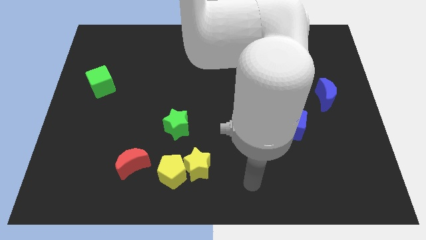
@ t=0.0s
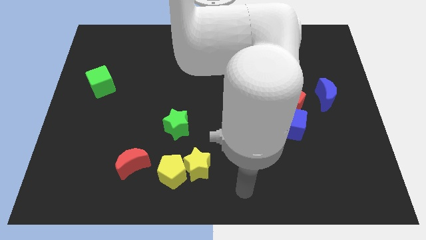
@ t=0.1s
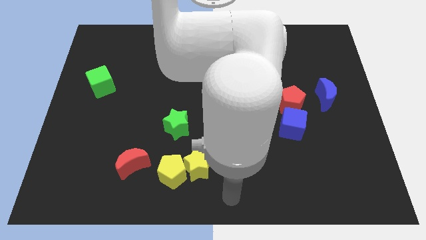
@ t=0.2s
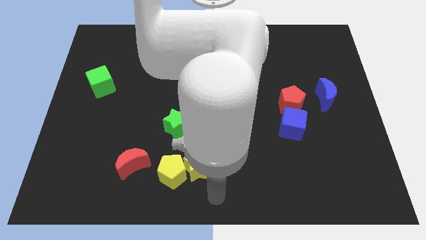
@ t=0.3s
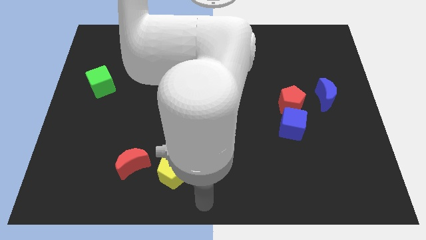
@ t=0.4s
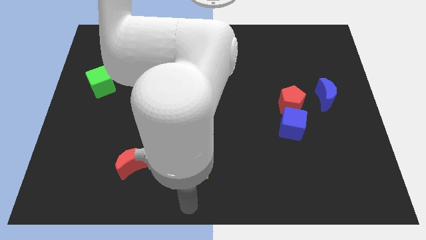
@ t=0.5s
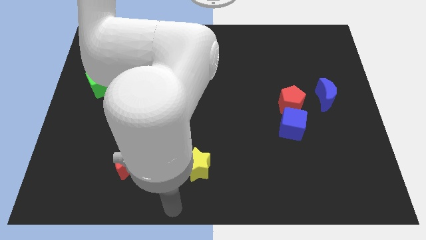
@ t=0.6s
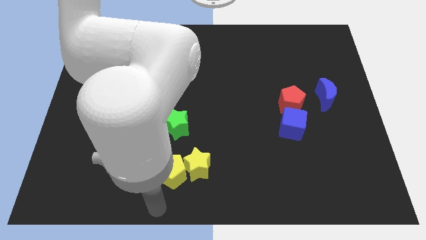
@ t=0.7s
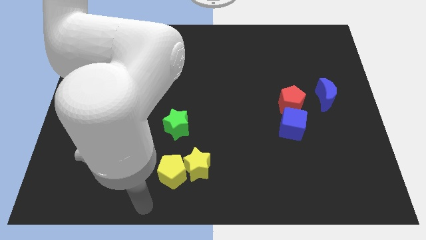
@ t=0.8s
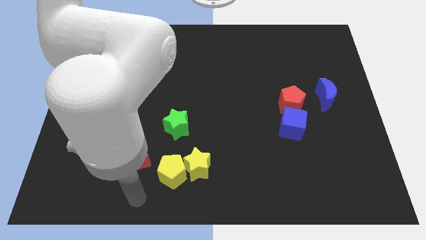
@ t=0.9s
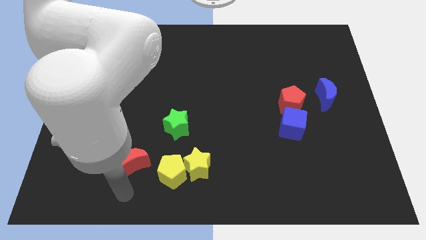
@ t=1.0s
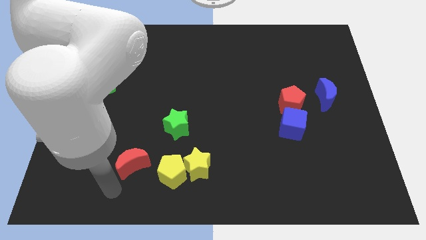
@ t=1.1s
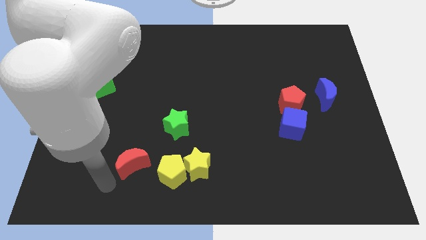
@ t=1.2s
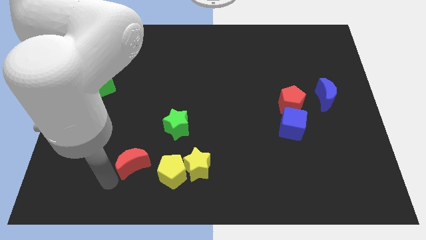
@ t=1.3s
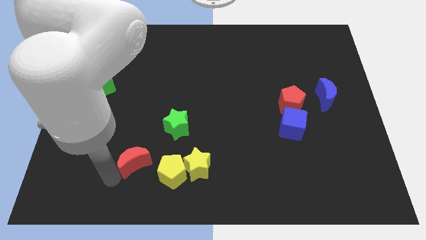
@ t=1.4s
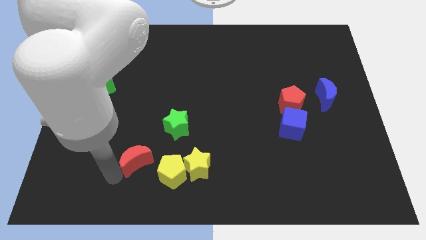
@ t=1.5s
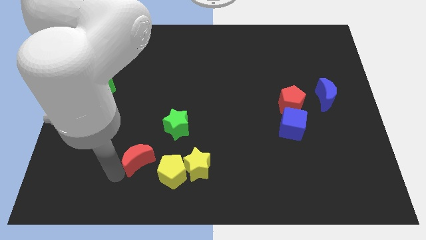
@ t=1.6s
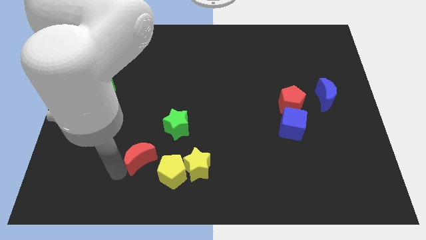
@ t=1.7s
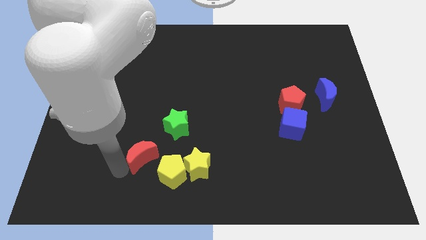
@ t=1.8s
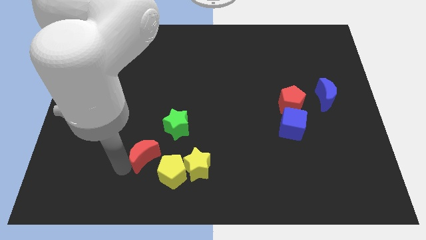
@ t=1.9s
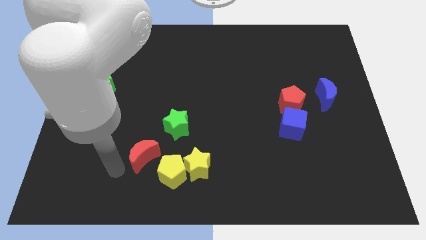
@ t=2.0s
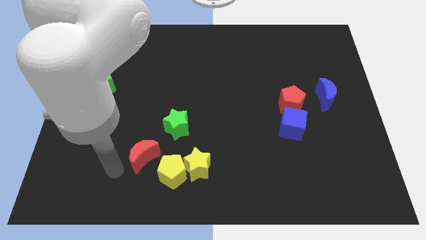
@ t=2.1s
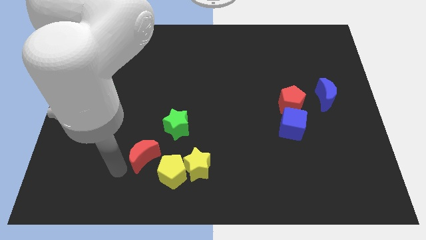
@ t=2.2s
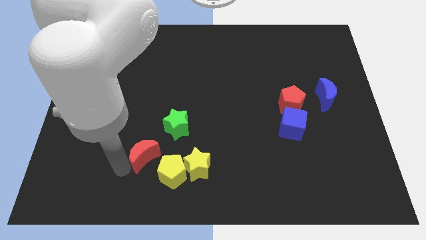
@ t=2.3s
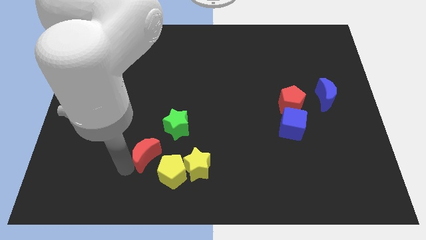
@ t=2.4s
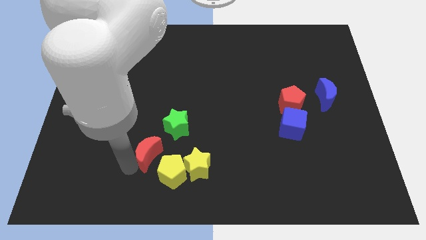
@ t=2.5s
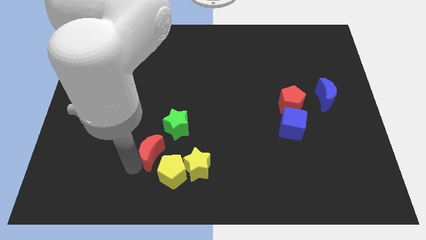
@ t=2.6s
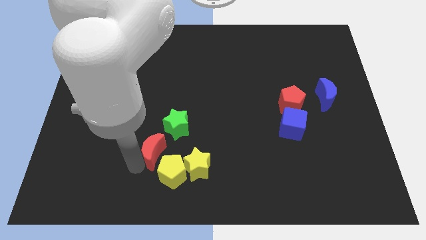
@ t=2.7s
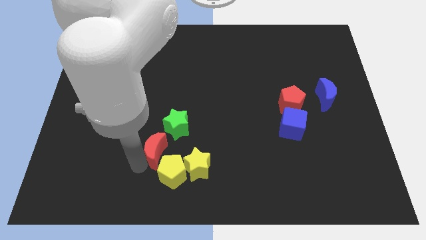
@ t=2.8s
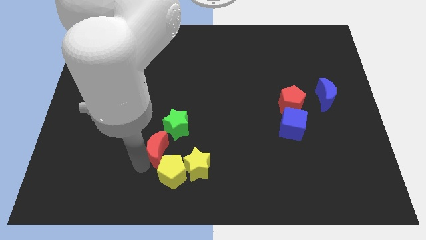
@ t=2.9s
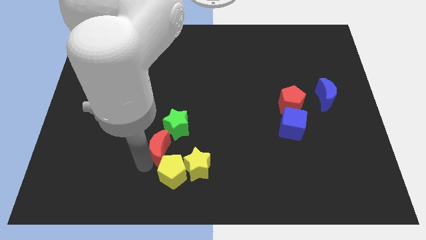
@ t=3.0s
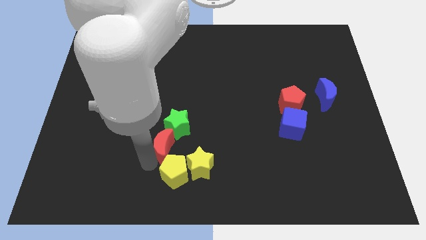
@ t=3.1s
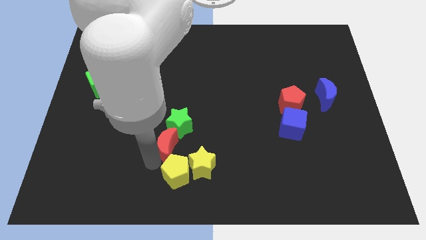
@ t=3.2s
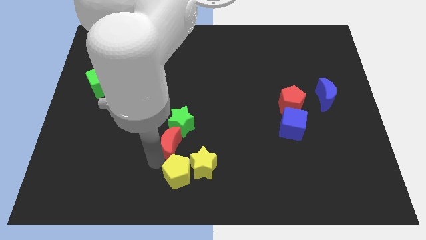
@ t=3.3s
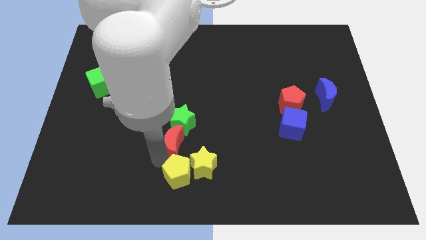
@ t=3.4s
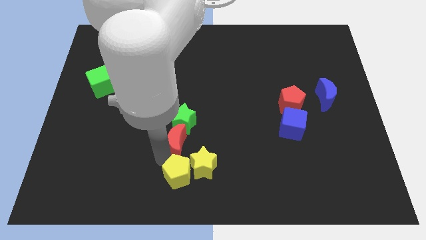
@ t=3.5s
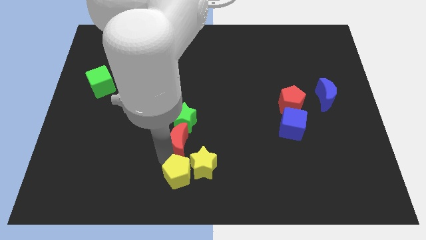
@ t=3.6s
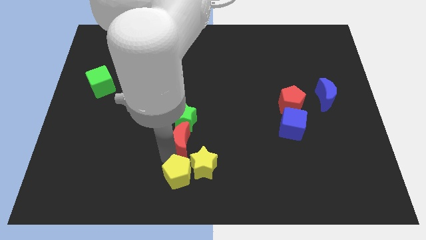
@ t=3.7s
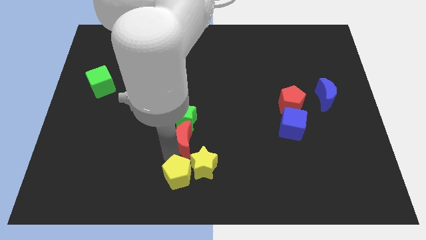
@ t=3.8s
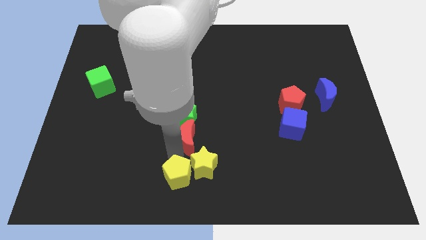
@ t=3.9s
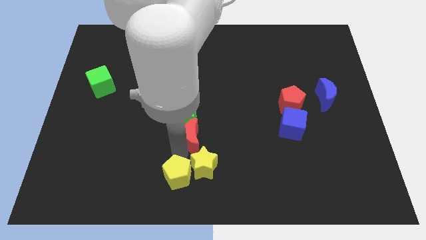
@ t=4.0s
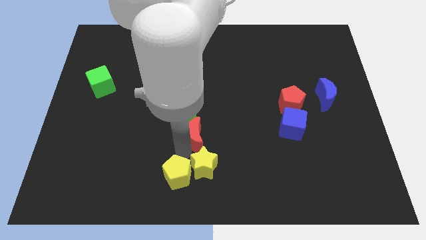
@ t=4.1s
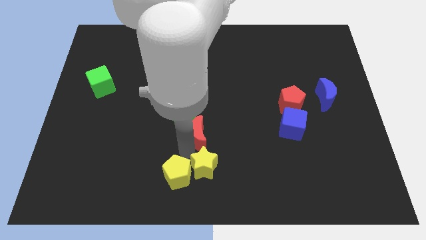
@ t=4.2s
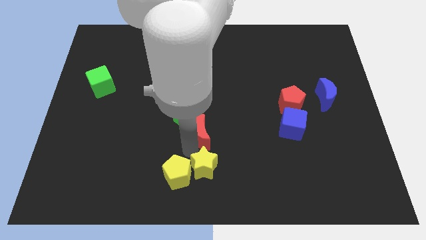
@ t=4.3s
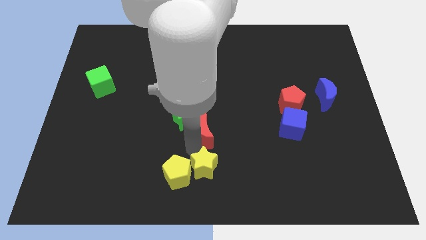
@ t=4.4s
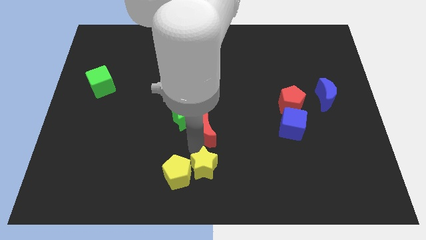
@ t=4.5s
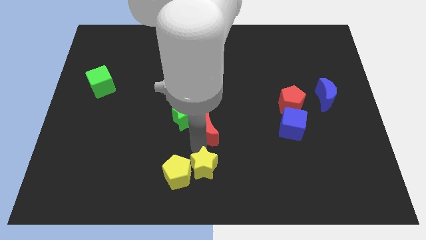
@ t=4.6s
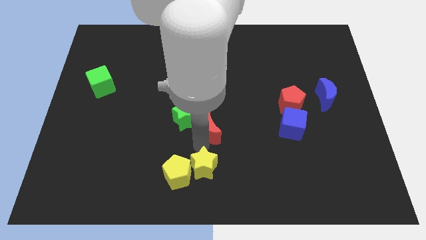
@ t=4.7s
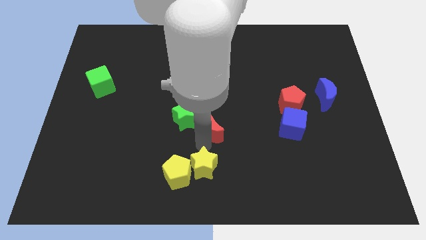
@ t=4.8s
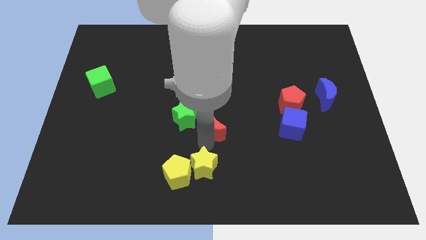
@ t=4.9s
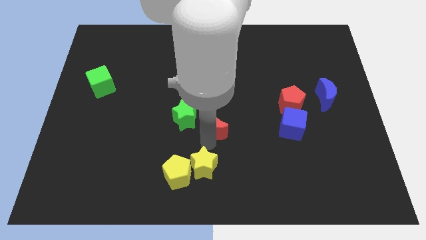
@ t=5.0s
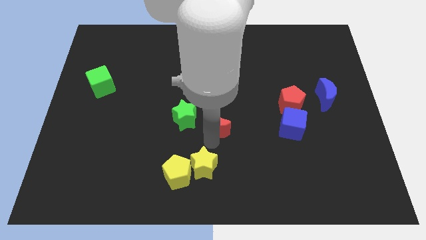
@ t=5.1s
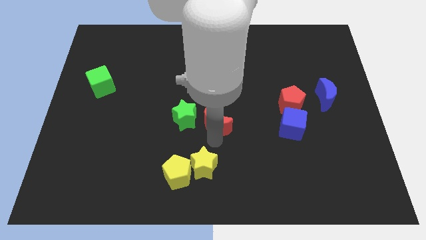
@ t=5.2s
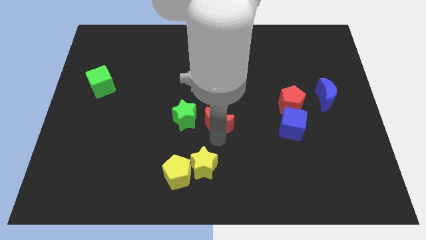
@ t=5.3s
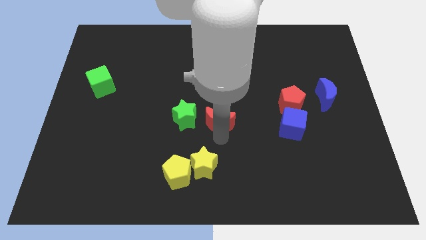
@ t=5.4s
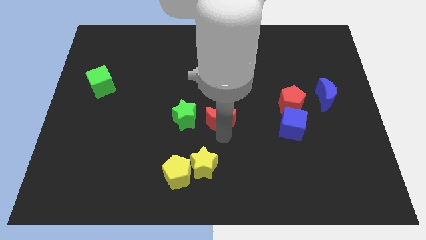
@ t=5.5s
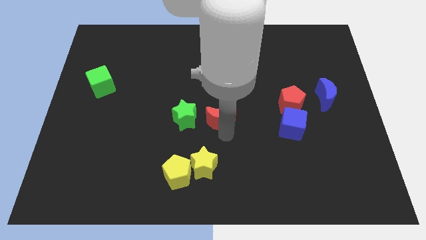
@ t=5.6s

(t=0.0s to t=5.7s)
push the red moon diagonally upwards and to the right

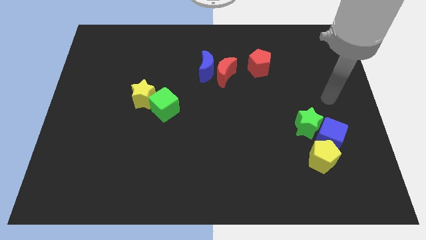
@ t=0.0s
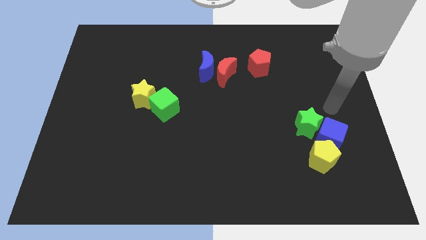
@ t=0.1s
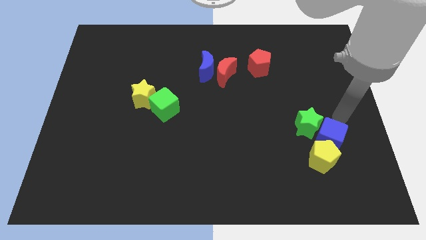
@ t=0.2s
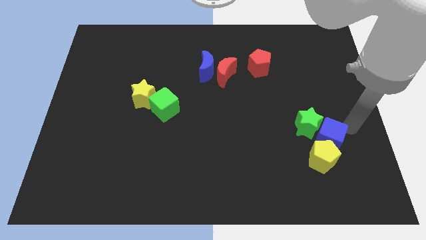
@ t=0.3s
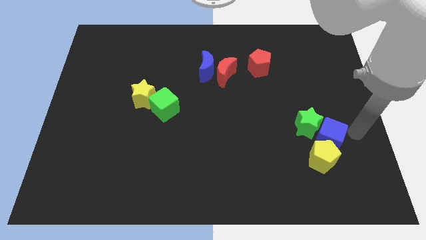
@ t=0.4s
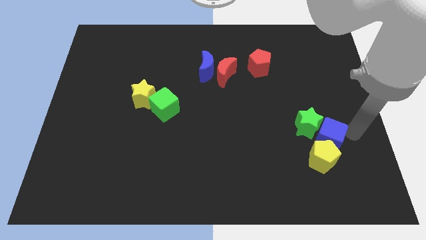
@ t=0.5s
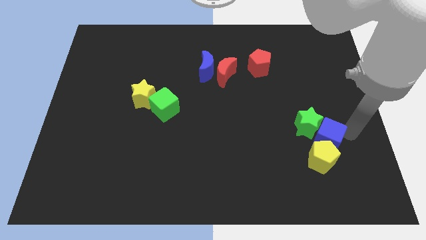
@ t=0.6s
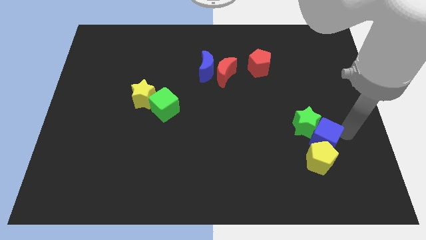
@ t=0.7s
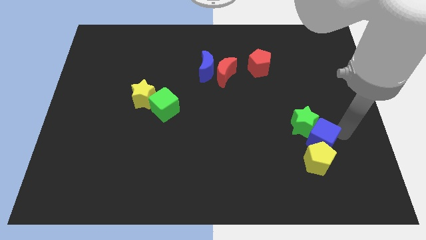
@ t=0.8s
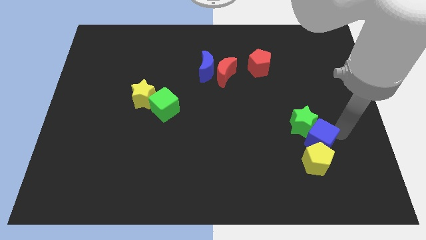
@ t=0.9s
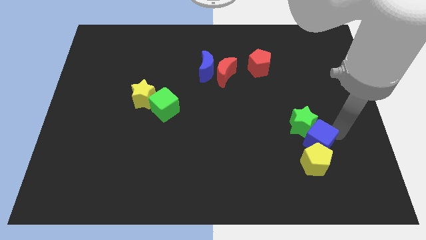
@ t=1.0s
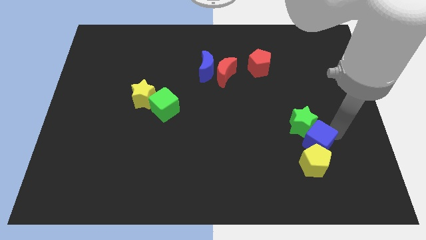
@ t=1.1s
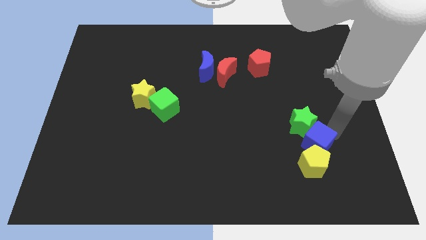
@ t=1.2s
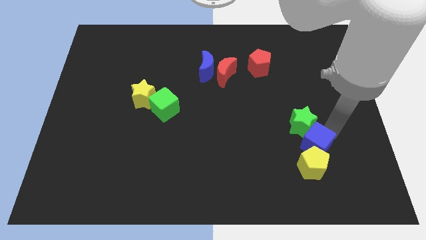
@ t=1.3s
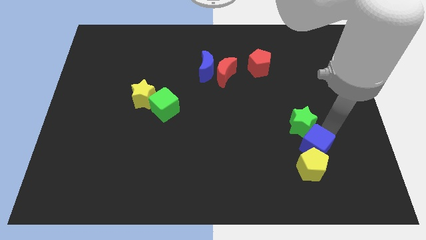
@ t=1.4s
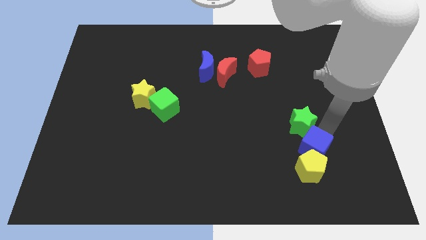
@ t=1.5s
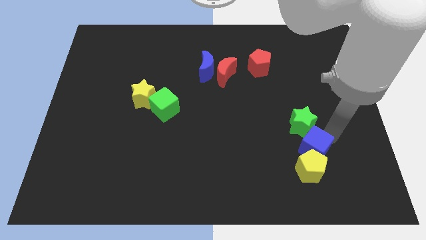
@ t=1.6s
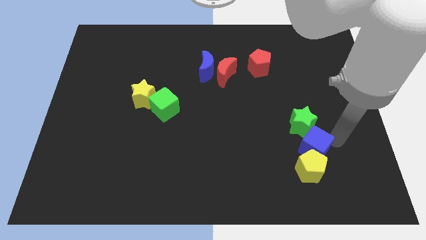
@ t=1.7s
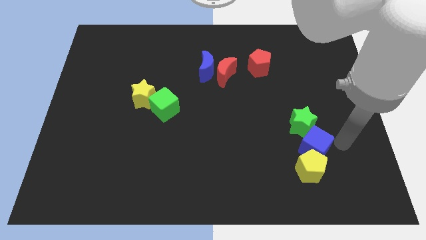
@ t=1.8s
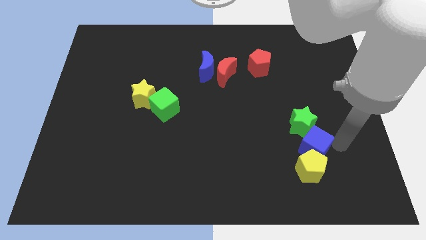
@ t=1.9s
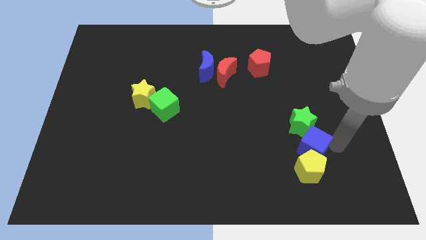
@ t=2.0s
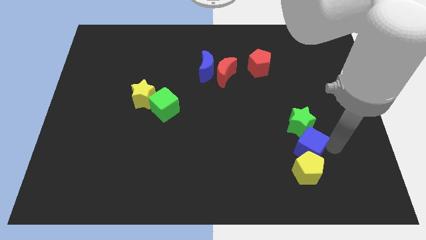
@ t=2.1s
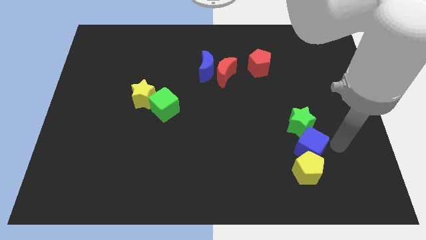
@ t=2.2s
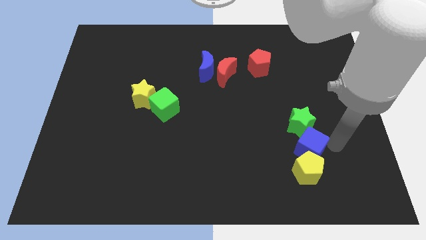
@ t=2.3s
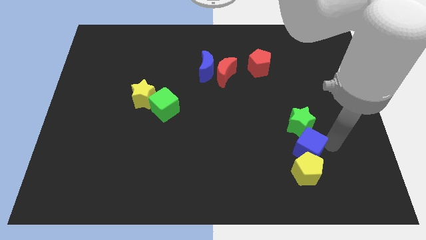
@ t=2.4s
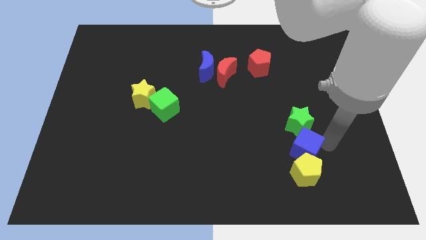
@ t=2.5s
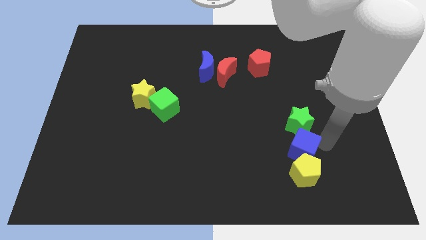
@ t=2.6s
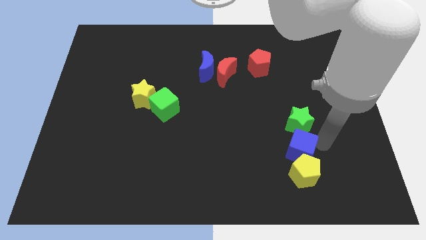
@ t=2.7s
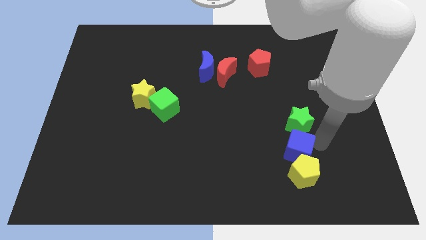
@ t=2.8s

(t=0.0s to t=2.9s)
slide the blue cube left a bit
